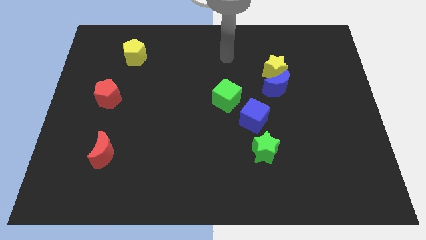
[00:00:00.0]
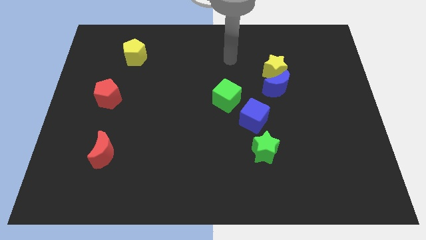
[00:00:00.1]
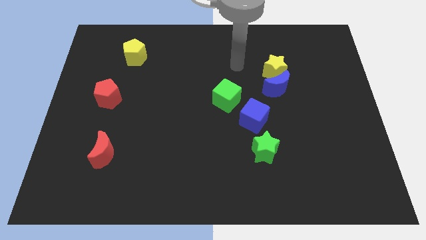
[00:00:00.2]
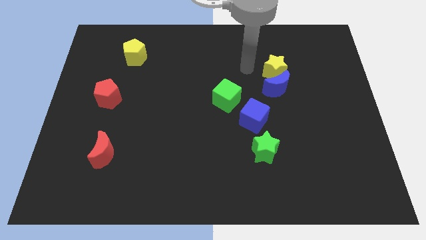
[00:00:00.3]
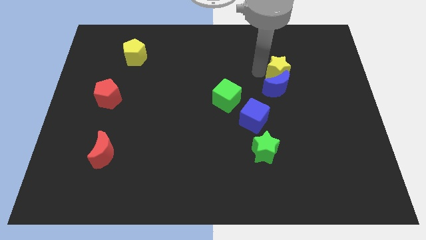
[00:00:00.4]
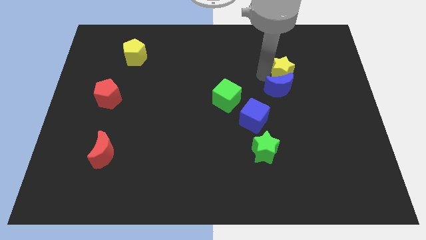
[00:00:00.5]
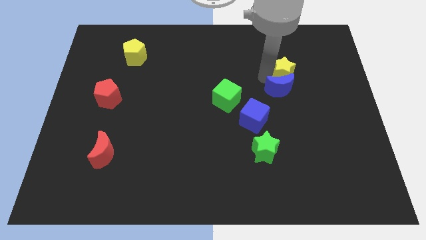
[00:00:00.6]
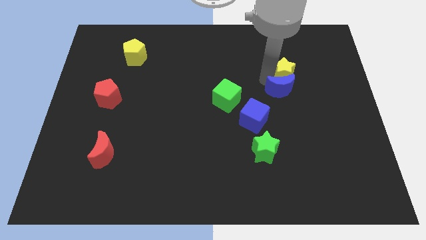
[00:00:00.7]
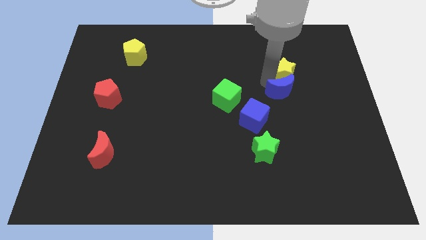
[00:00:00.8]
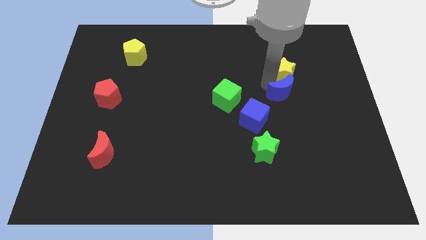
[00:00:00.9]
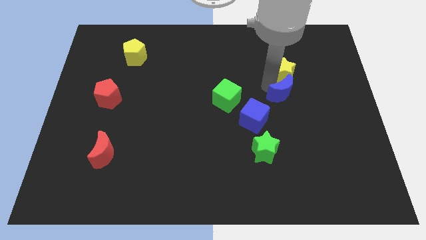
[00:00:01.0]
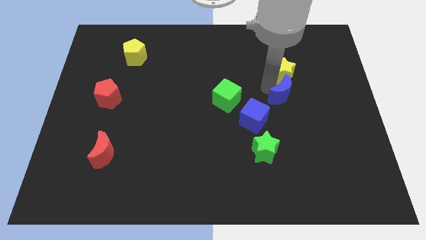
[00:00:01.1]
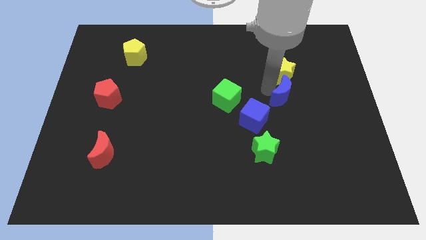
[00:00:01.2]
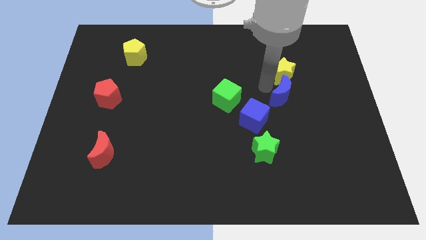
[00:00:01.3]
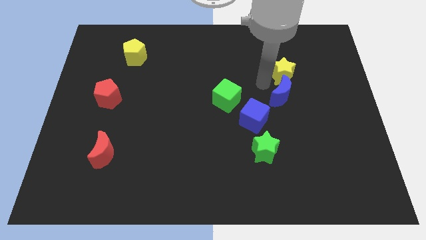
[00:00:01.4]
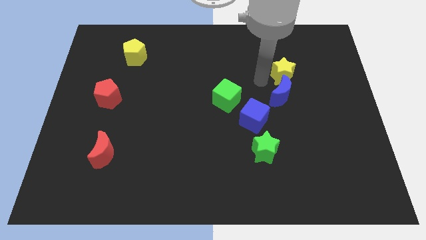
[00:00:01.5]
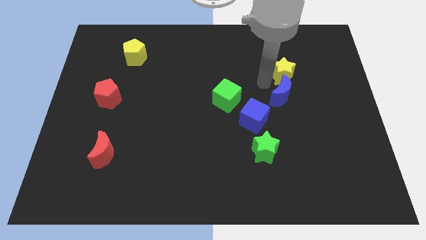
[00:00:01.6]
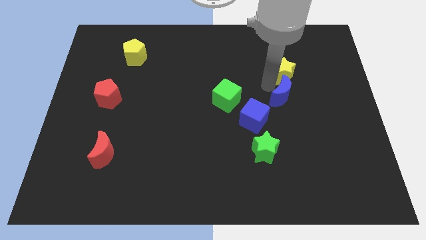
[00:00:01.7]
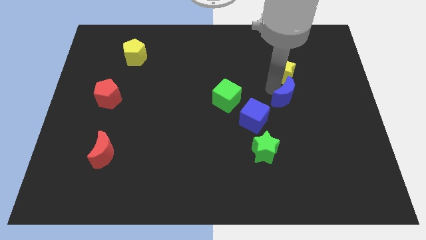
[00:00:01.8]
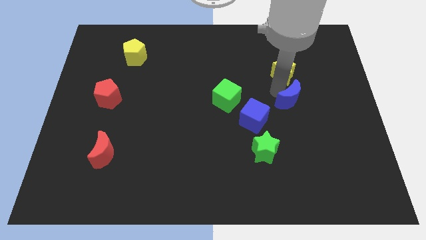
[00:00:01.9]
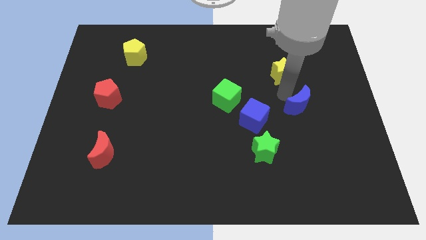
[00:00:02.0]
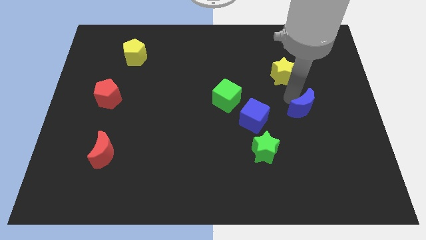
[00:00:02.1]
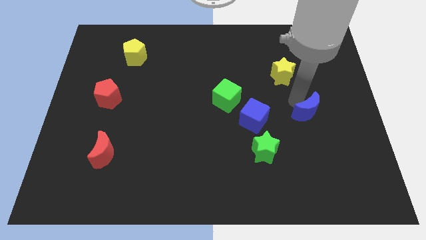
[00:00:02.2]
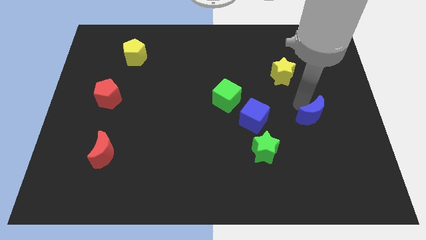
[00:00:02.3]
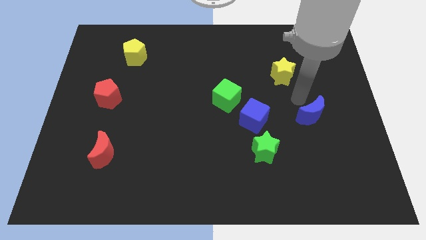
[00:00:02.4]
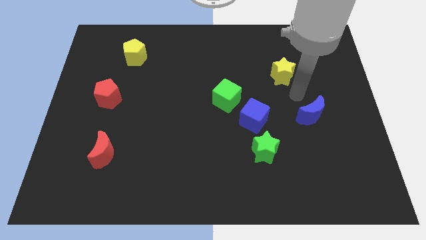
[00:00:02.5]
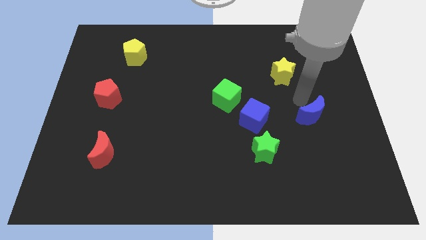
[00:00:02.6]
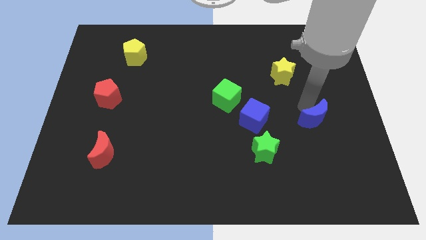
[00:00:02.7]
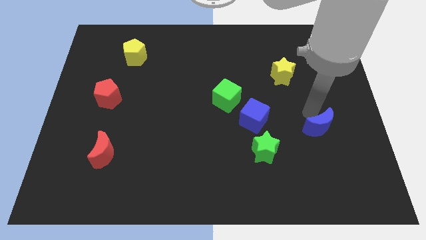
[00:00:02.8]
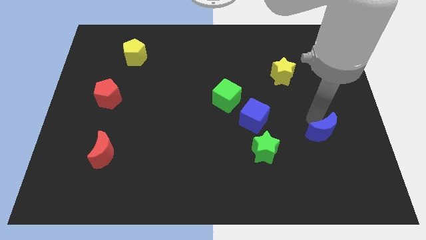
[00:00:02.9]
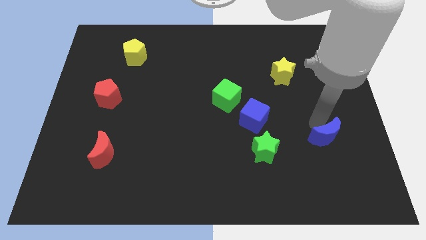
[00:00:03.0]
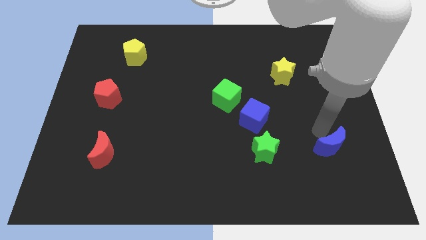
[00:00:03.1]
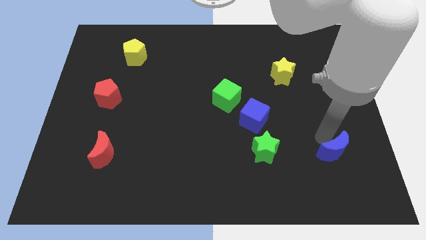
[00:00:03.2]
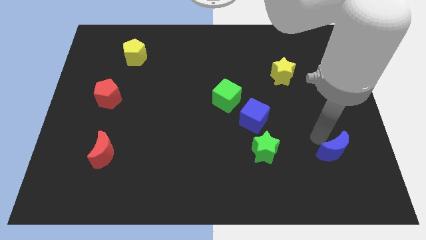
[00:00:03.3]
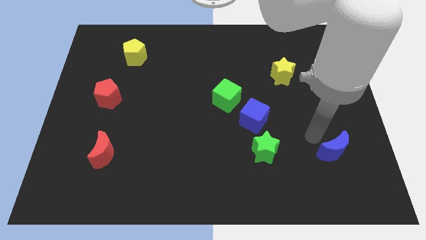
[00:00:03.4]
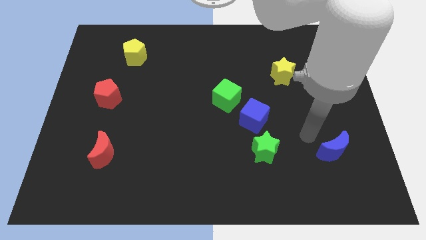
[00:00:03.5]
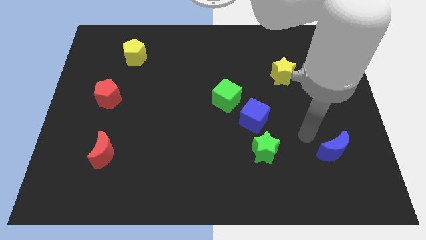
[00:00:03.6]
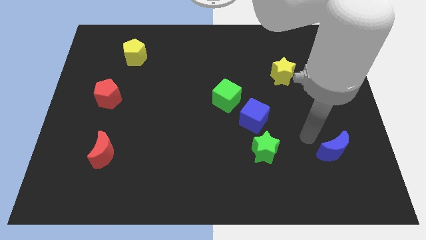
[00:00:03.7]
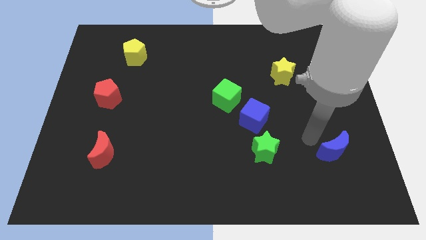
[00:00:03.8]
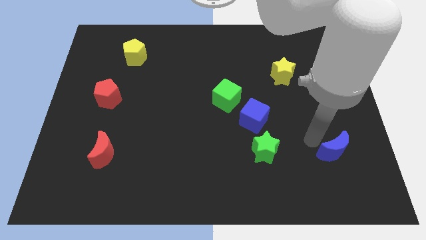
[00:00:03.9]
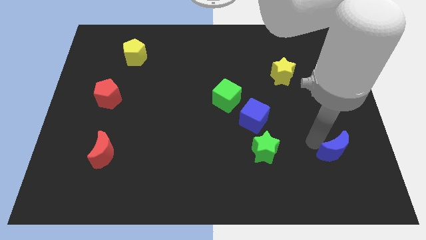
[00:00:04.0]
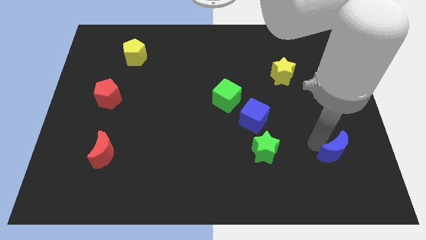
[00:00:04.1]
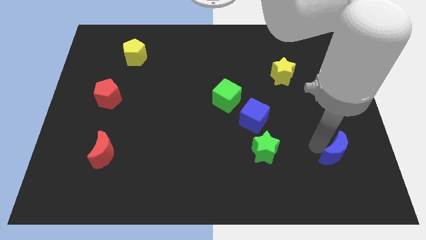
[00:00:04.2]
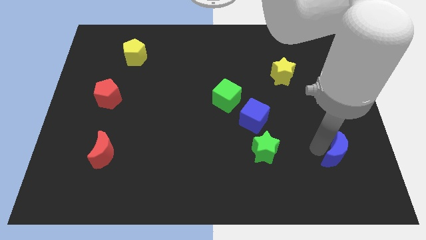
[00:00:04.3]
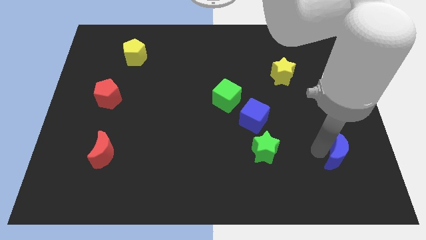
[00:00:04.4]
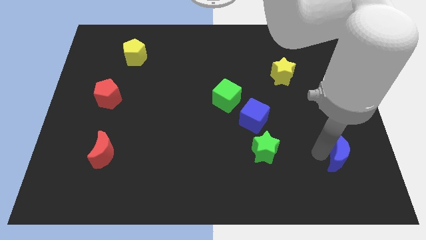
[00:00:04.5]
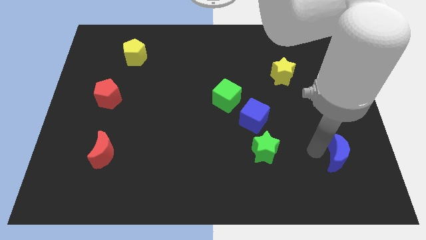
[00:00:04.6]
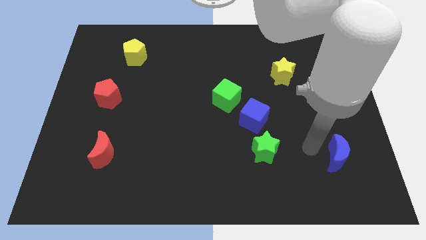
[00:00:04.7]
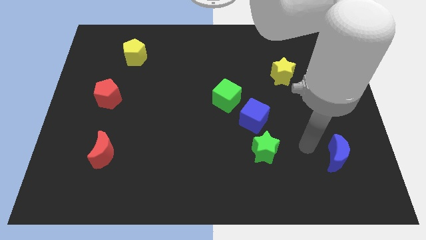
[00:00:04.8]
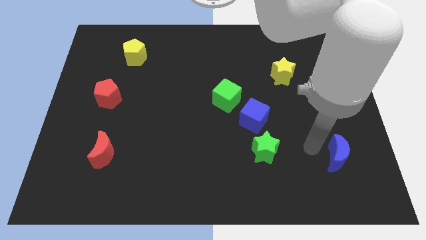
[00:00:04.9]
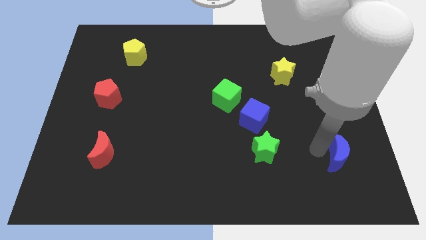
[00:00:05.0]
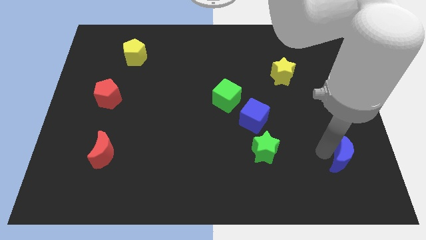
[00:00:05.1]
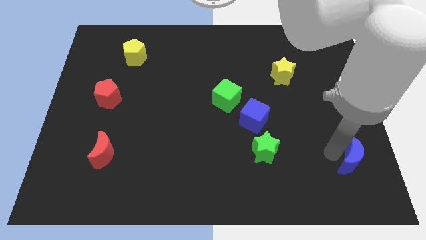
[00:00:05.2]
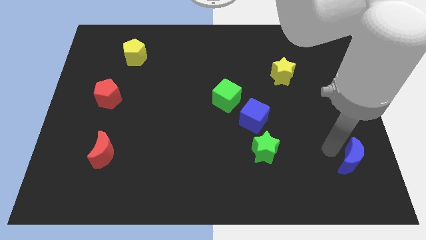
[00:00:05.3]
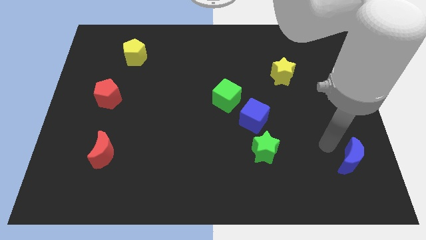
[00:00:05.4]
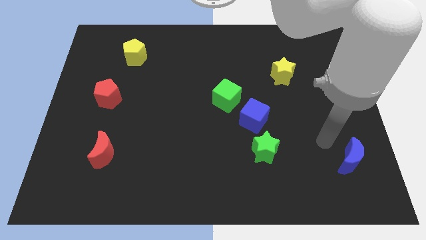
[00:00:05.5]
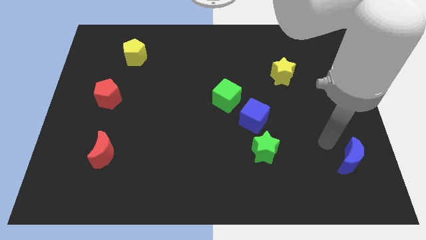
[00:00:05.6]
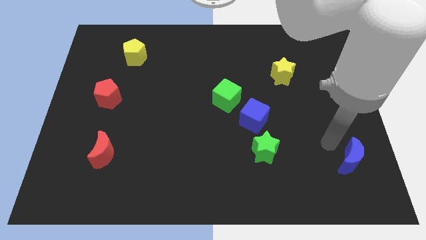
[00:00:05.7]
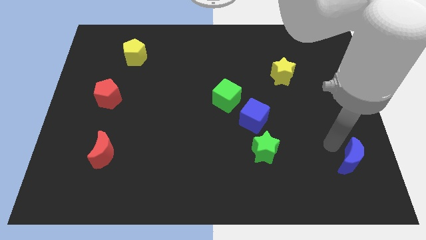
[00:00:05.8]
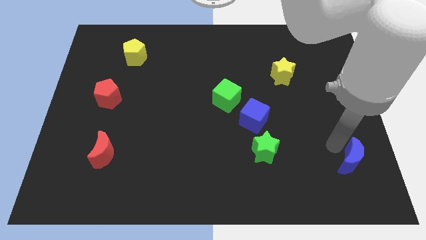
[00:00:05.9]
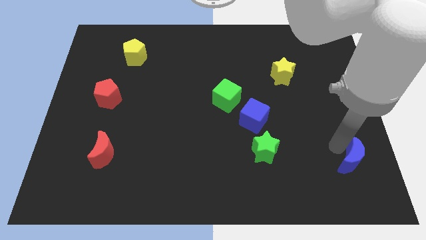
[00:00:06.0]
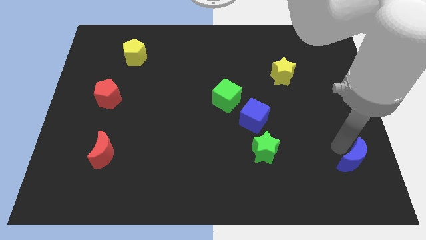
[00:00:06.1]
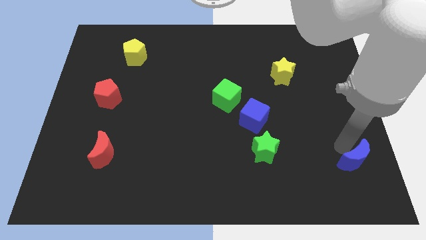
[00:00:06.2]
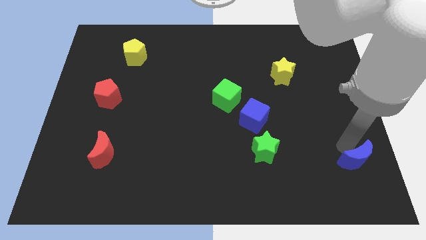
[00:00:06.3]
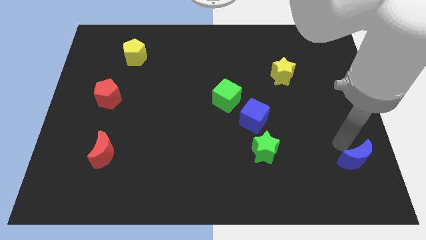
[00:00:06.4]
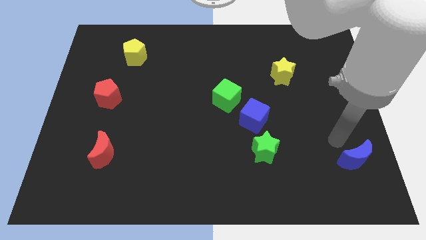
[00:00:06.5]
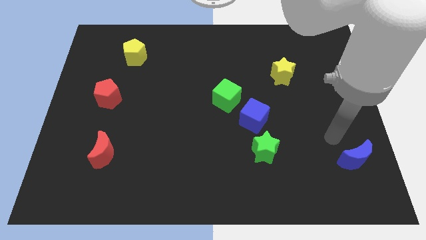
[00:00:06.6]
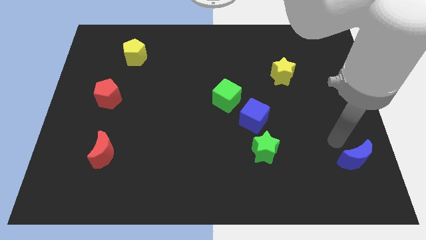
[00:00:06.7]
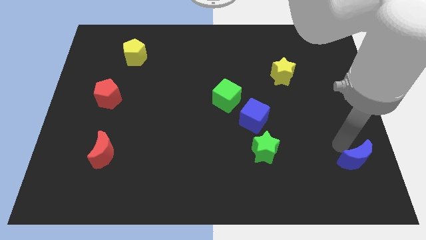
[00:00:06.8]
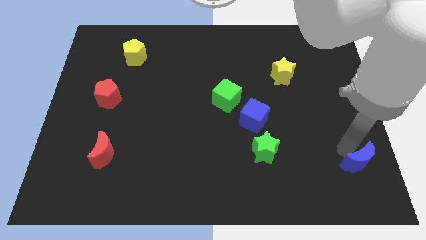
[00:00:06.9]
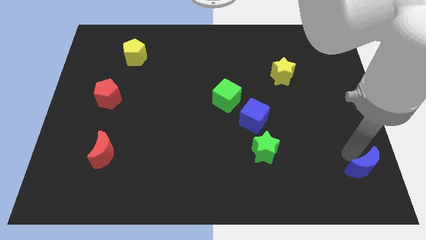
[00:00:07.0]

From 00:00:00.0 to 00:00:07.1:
move the blue moon to the bottom right corner
